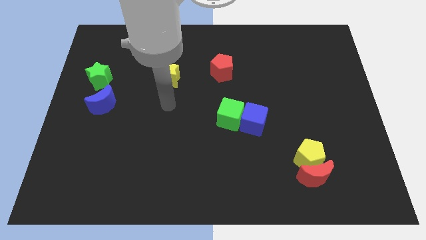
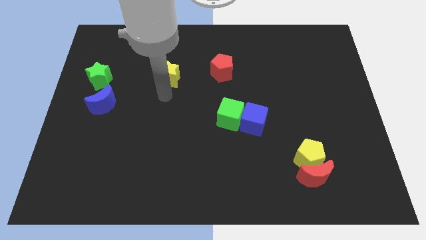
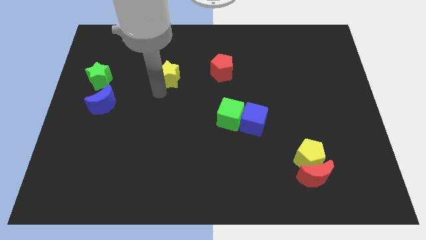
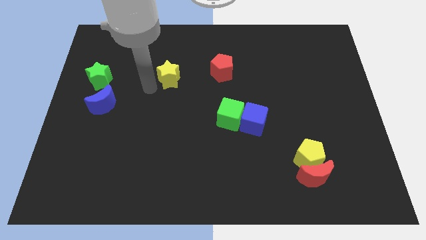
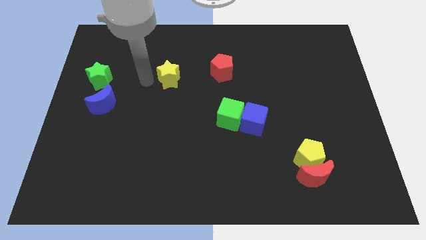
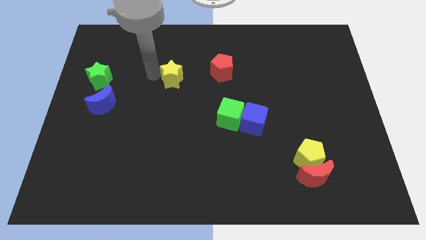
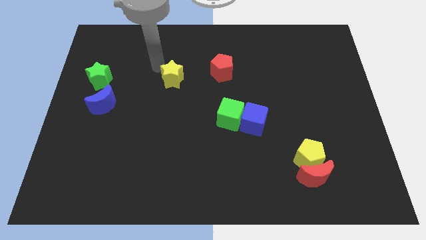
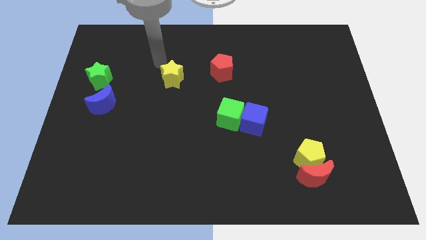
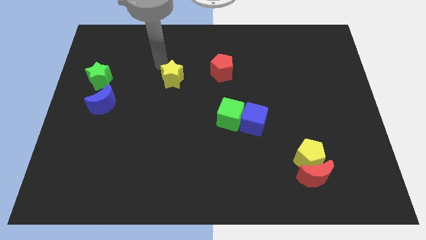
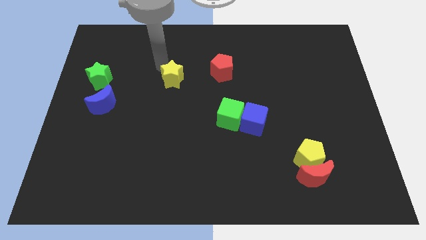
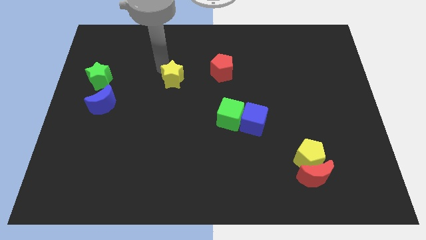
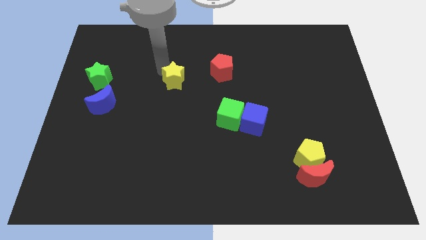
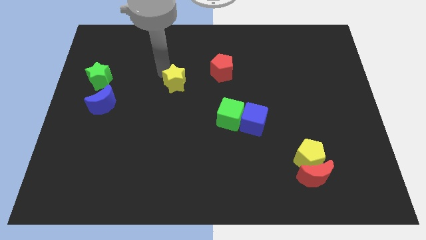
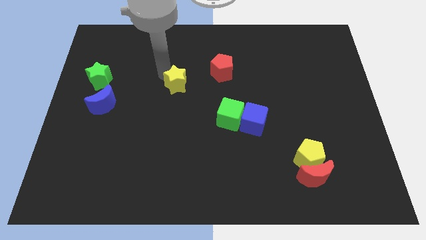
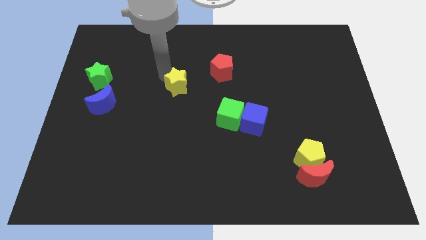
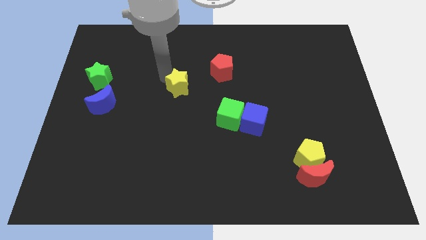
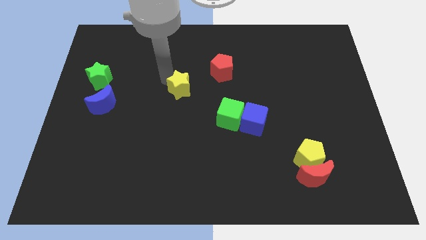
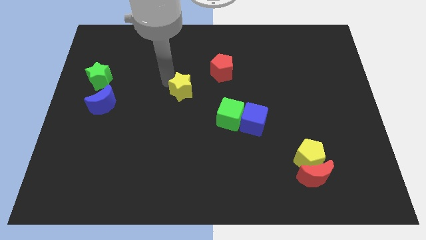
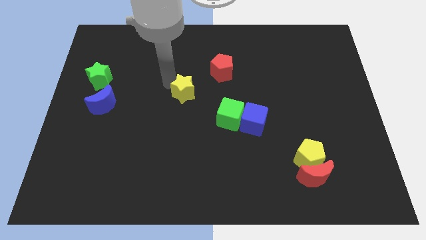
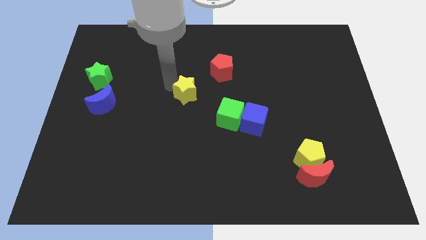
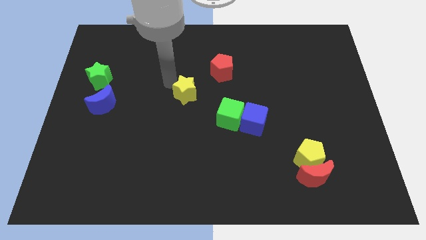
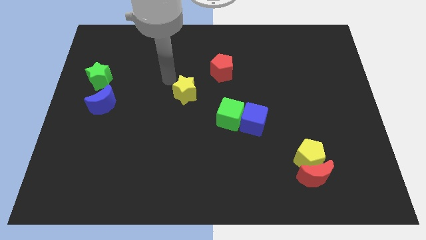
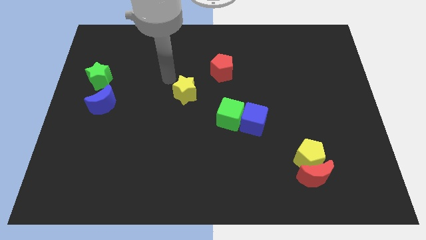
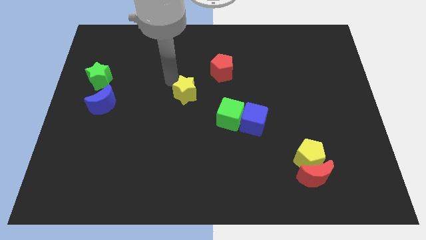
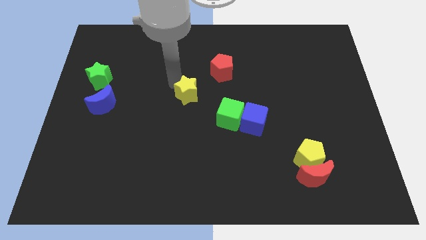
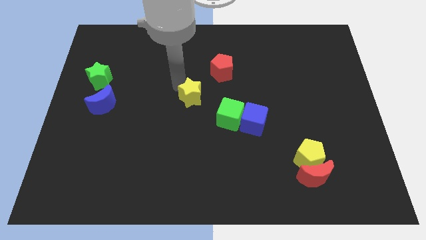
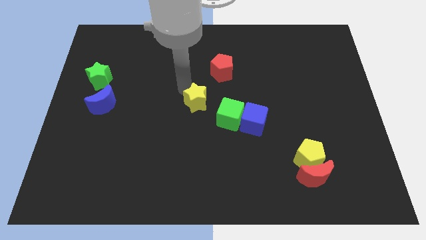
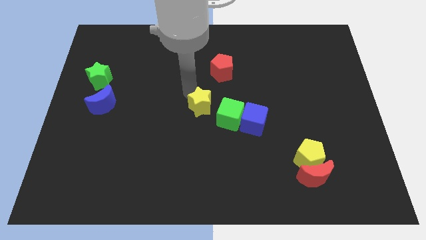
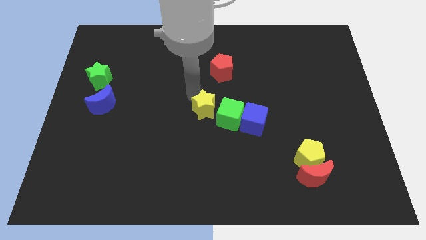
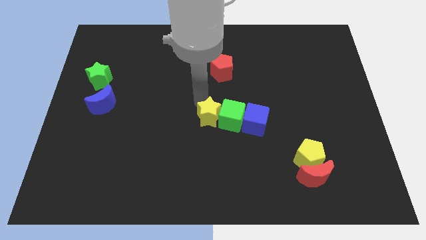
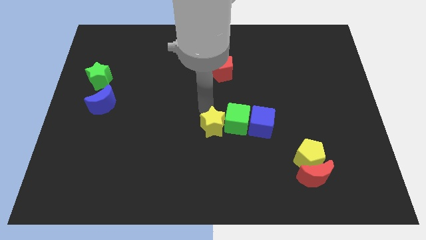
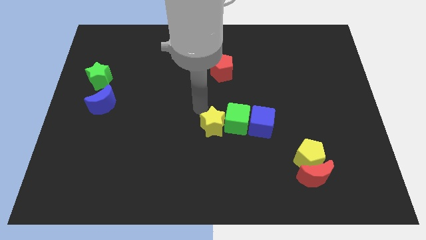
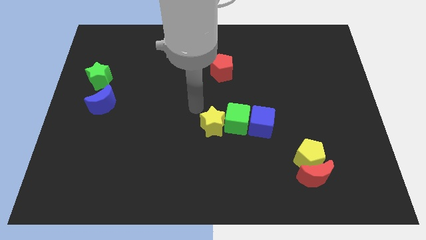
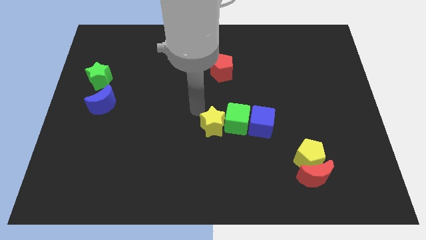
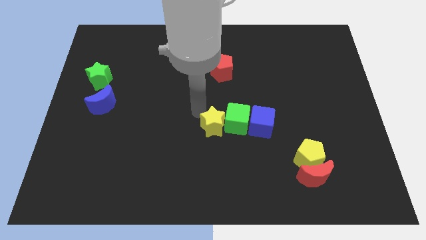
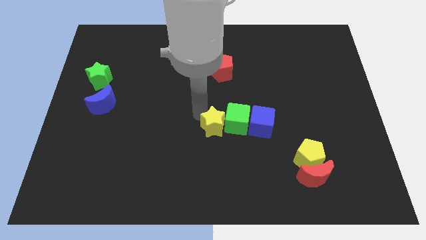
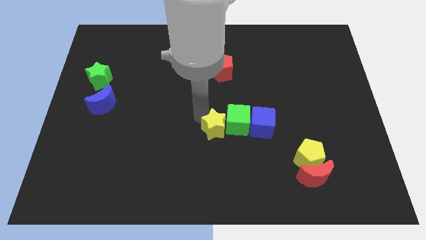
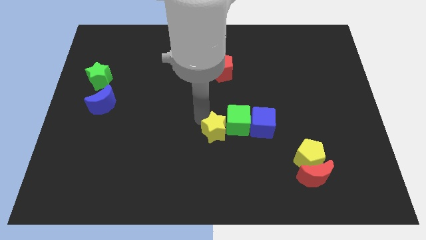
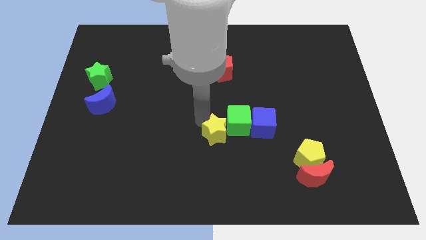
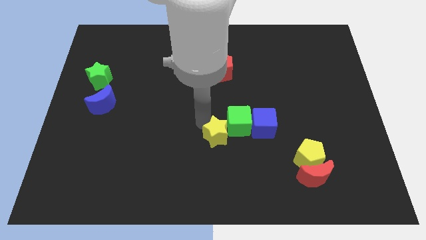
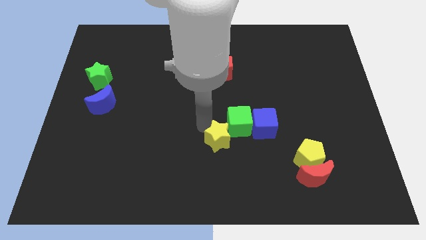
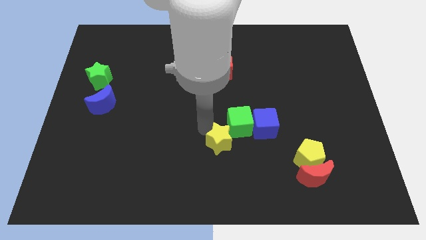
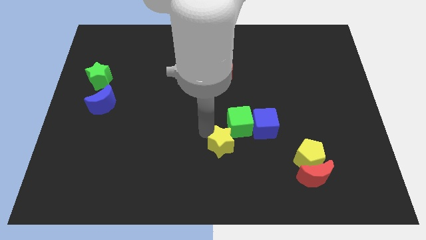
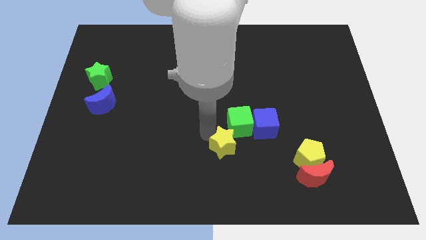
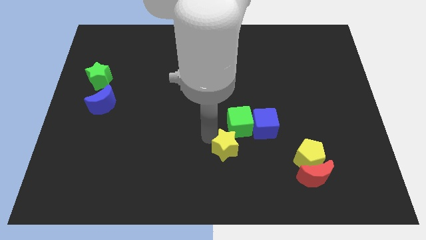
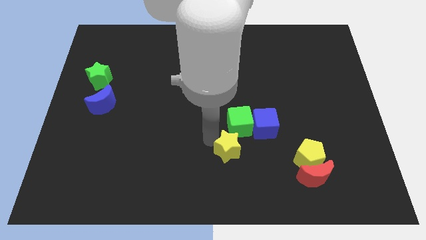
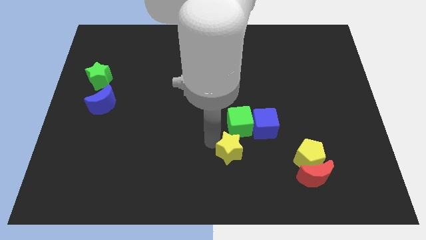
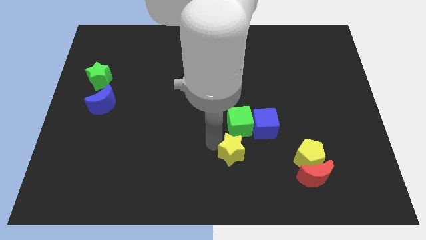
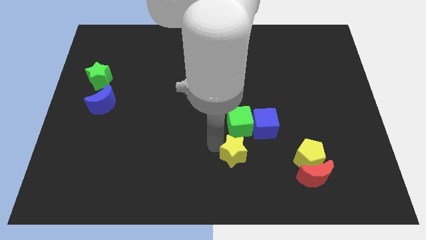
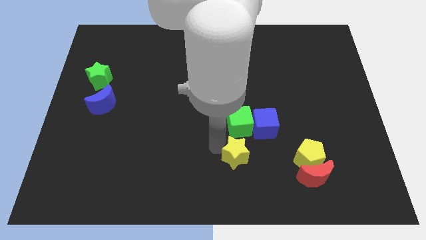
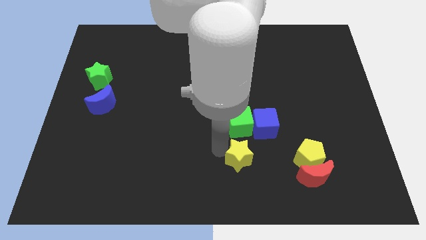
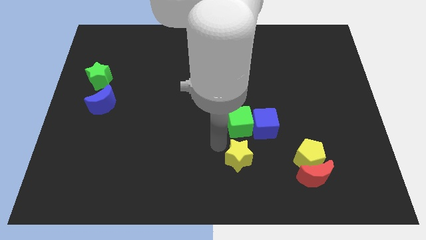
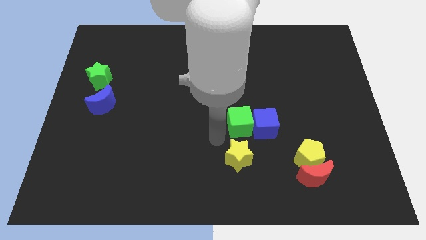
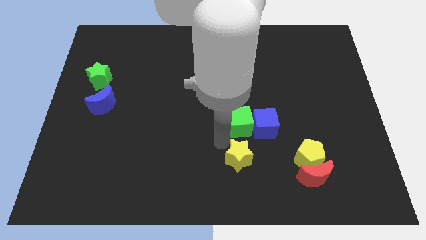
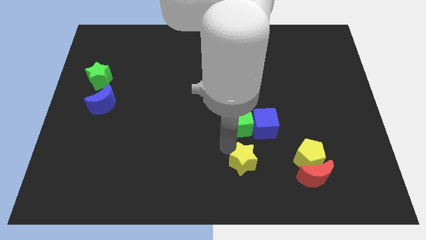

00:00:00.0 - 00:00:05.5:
slide the yellow star just left of the red moon

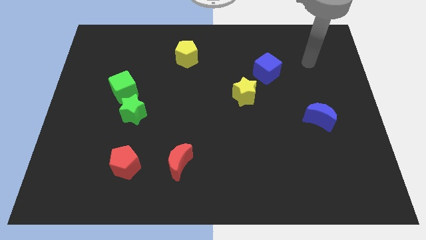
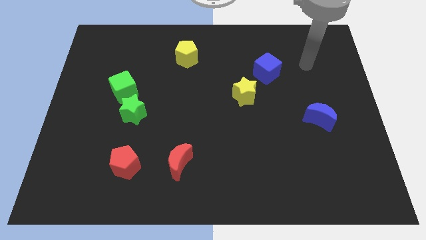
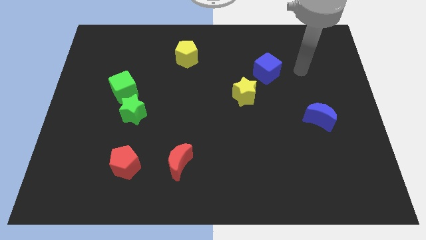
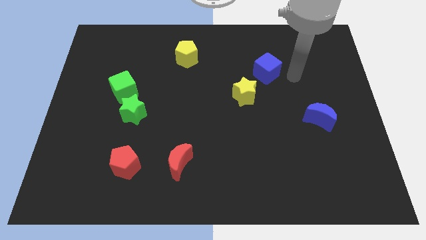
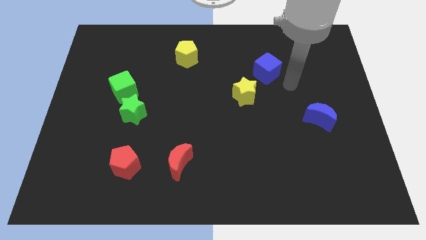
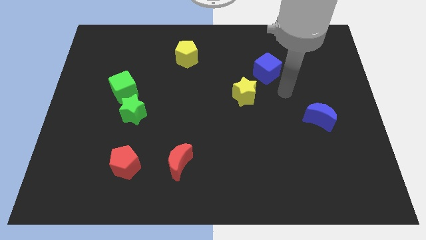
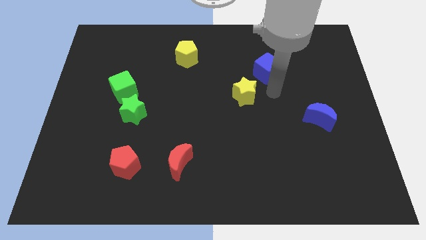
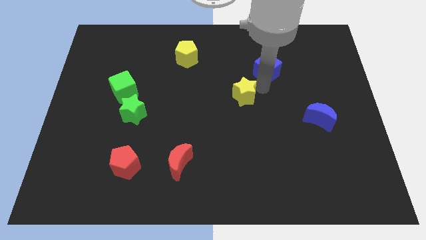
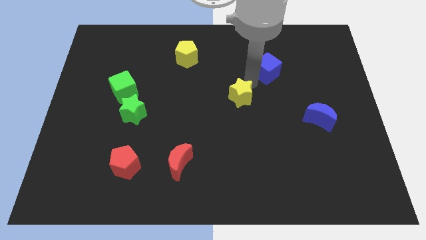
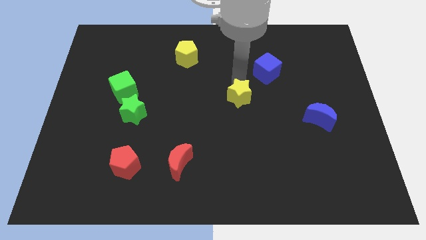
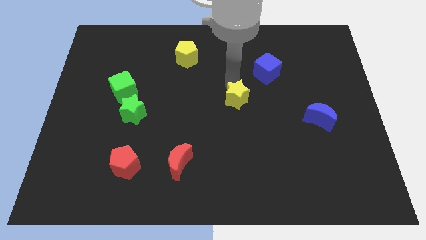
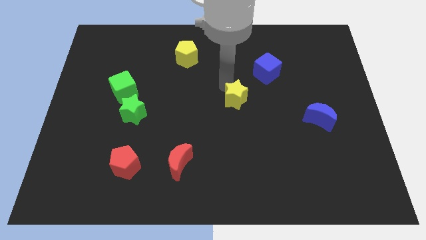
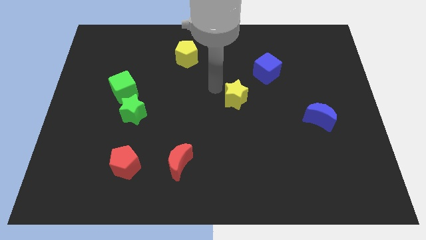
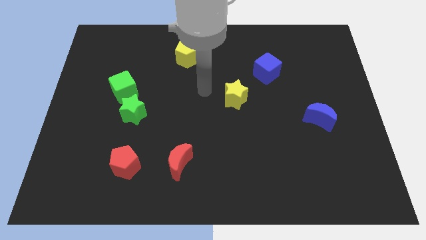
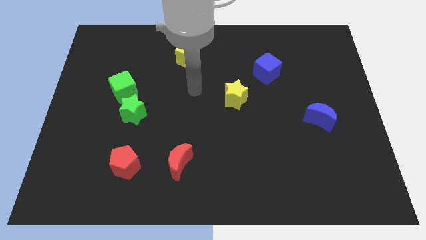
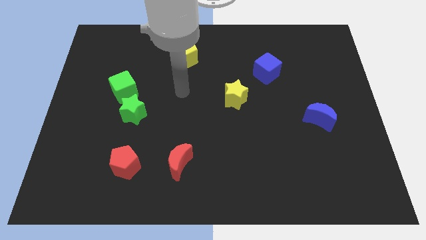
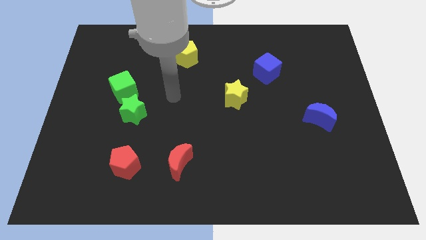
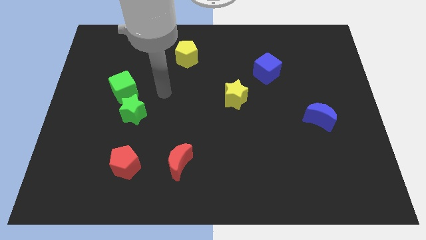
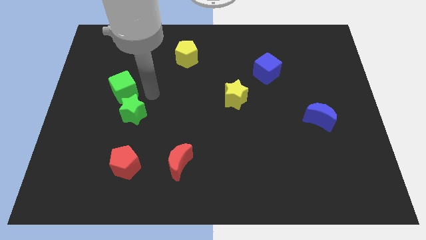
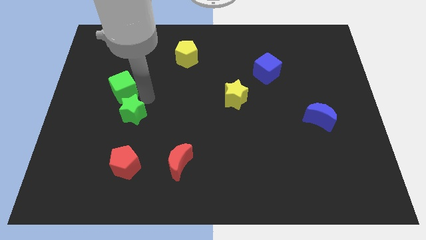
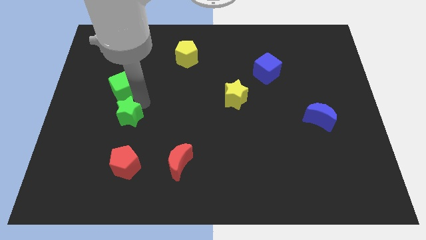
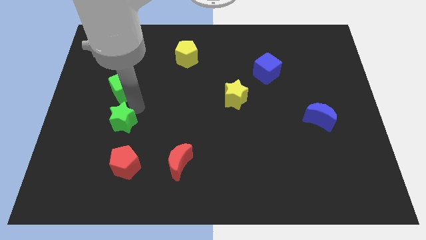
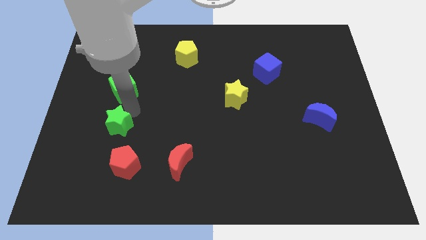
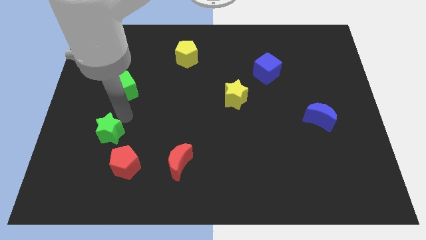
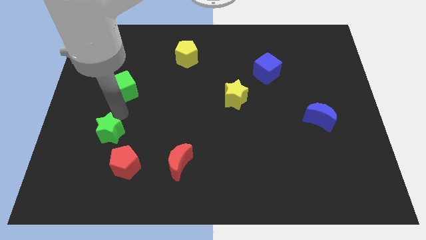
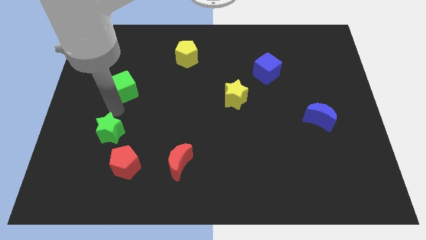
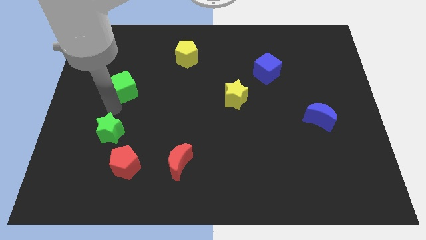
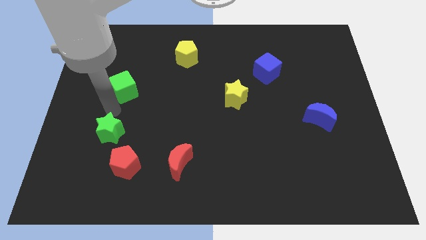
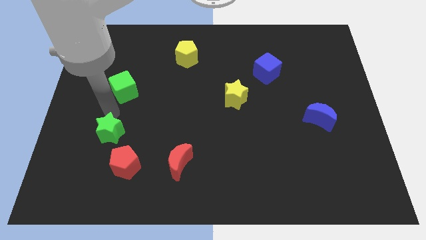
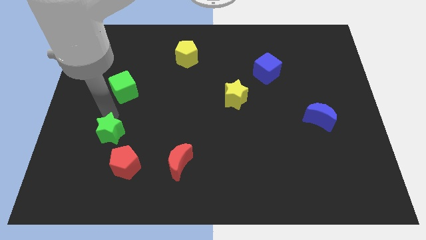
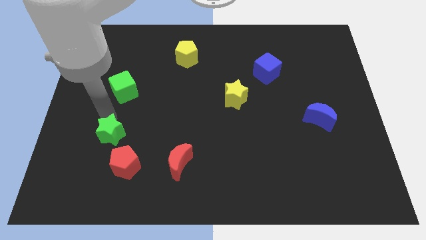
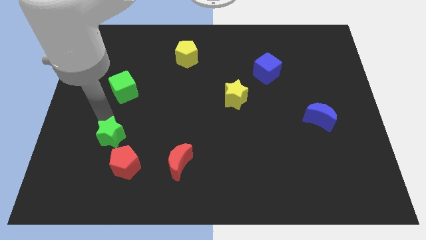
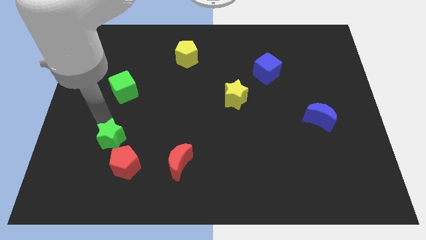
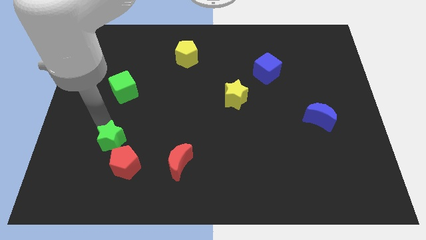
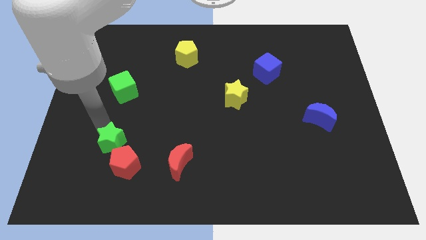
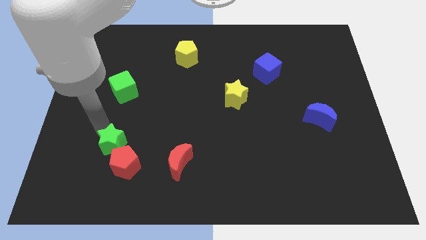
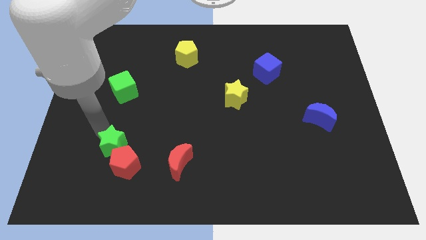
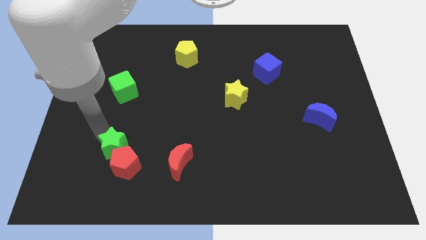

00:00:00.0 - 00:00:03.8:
move the green star just left of the red moon
